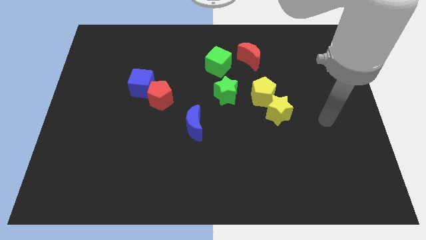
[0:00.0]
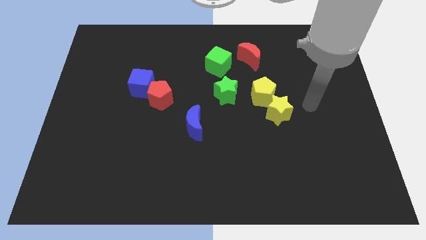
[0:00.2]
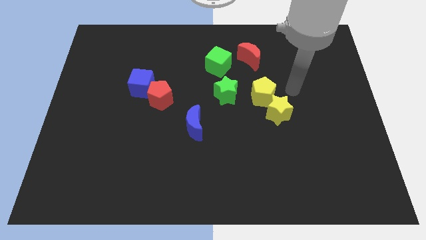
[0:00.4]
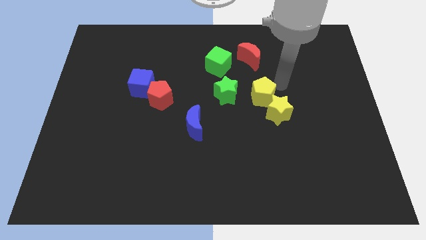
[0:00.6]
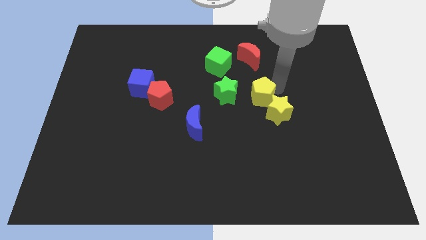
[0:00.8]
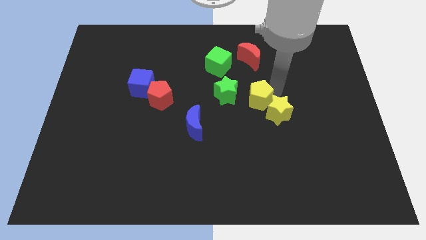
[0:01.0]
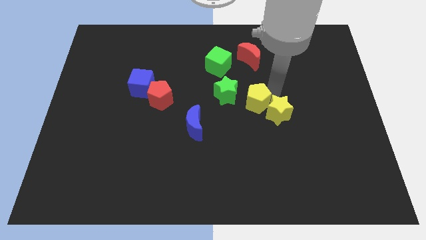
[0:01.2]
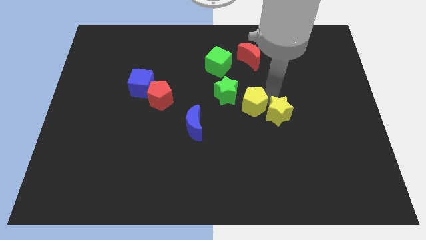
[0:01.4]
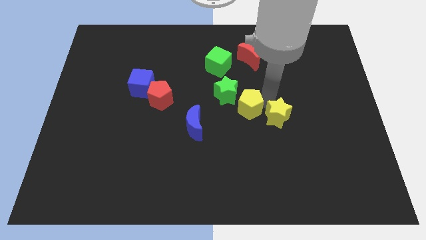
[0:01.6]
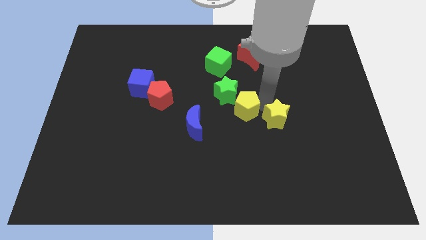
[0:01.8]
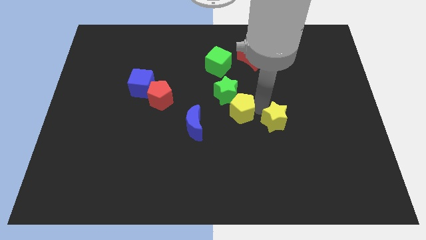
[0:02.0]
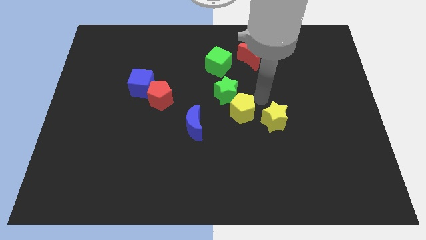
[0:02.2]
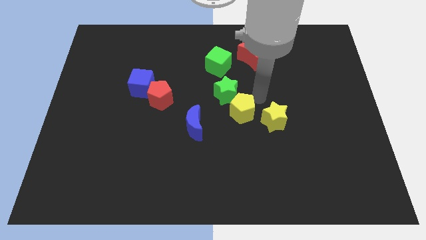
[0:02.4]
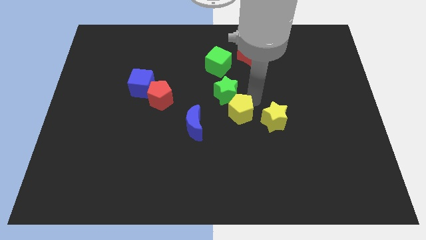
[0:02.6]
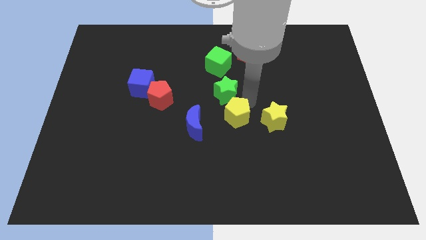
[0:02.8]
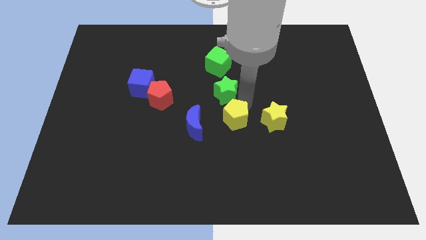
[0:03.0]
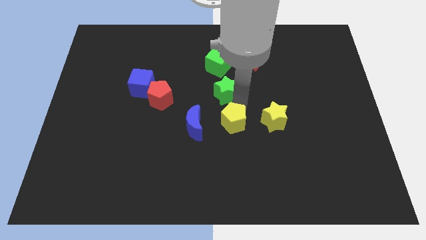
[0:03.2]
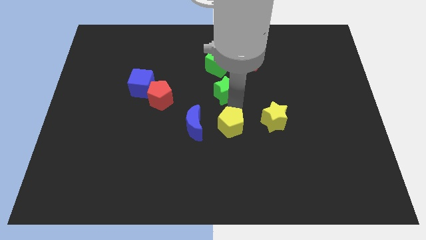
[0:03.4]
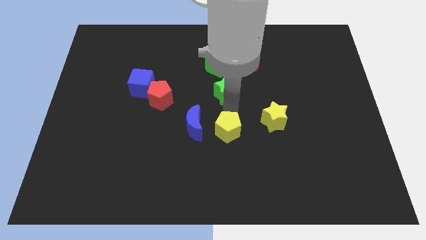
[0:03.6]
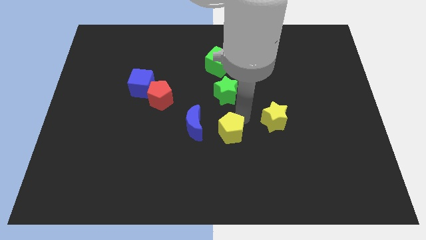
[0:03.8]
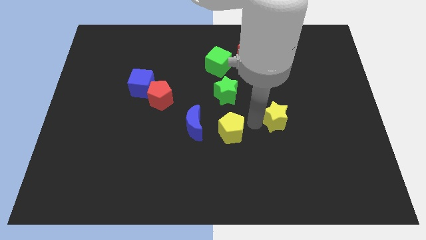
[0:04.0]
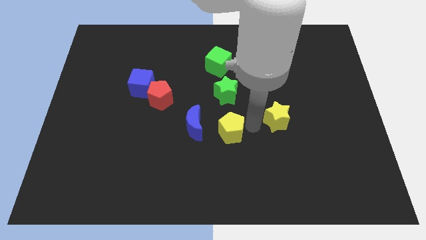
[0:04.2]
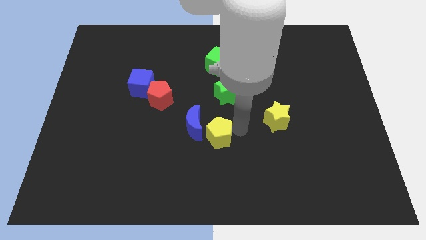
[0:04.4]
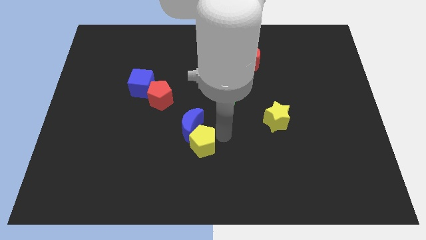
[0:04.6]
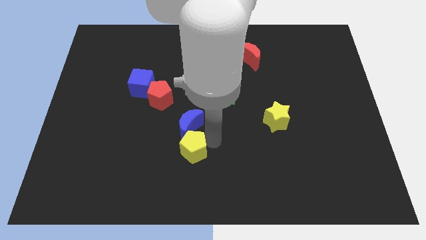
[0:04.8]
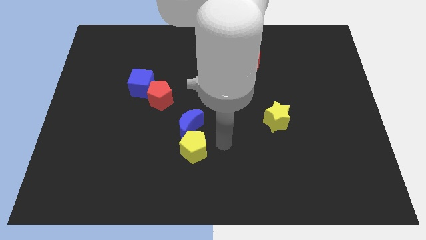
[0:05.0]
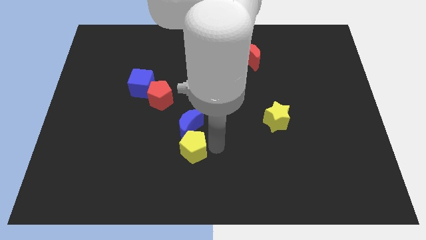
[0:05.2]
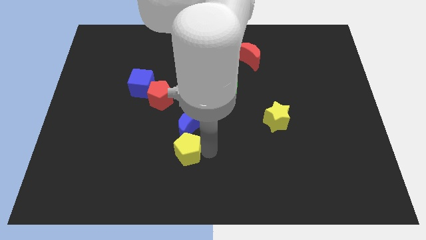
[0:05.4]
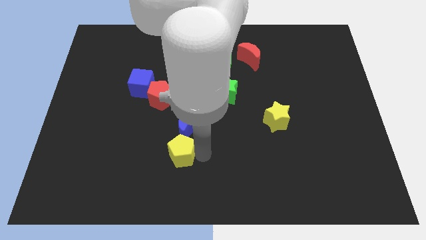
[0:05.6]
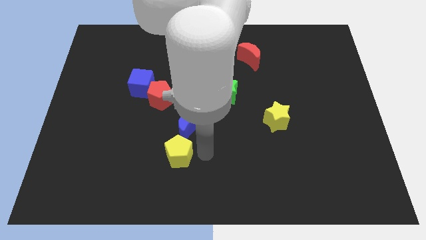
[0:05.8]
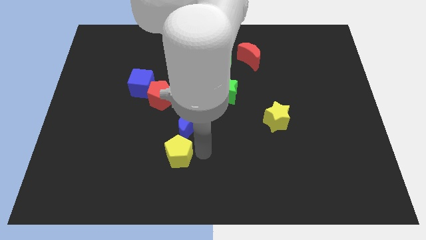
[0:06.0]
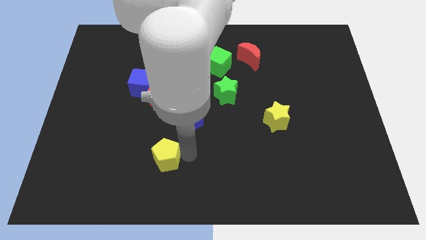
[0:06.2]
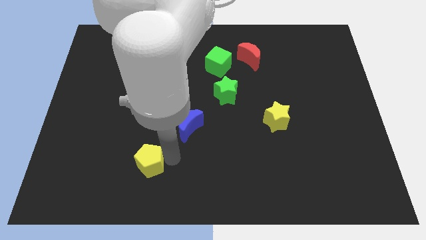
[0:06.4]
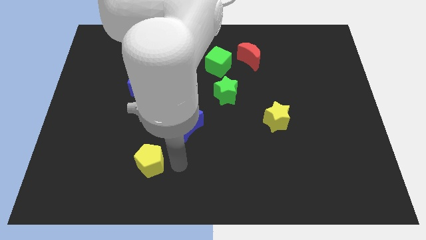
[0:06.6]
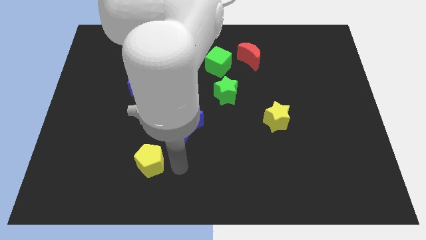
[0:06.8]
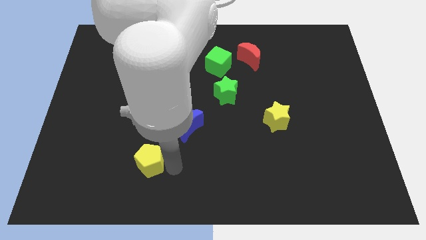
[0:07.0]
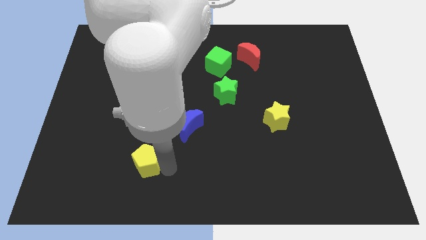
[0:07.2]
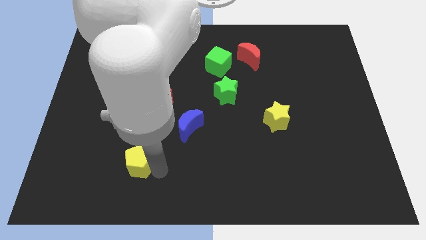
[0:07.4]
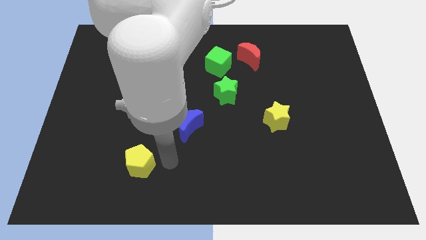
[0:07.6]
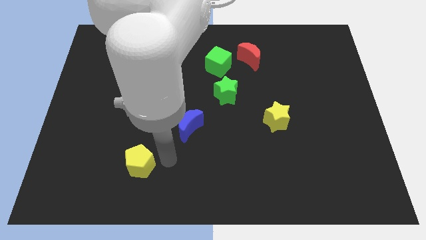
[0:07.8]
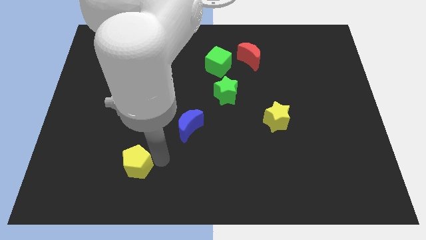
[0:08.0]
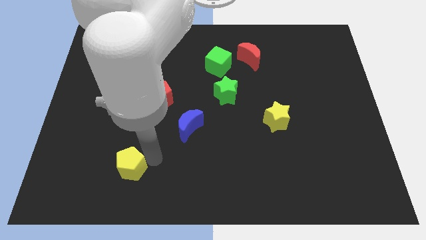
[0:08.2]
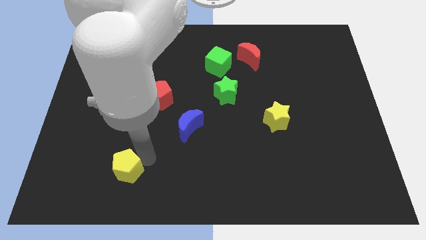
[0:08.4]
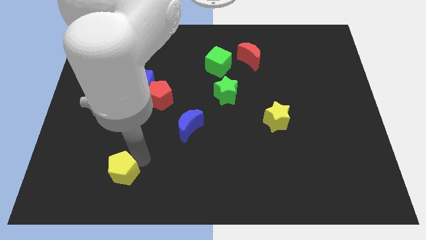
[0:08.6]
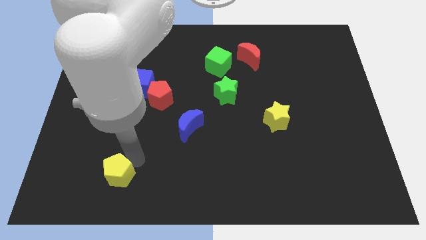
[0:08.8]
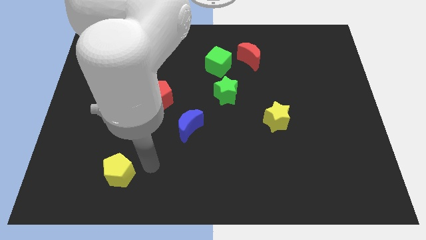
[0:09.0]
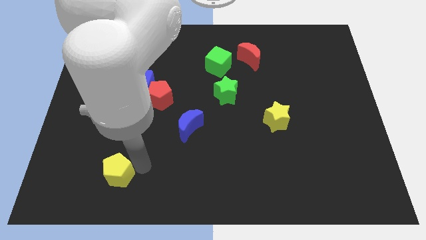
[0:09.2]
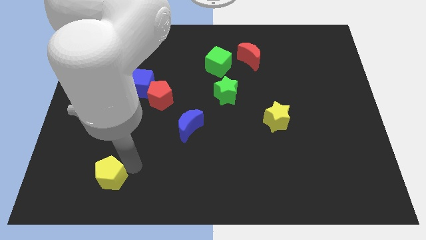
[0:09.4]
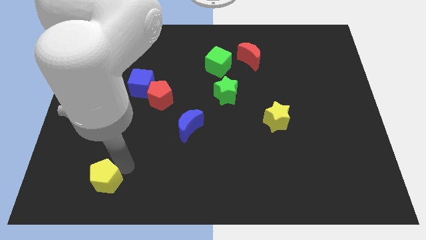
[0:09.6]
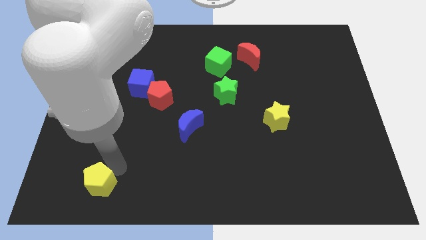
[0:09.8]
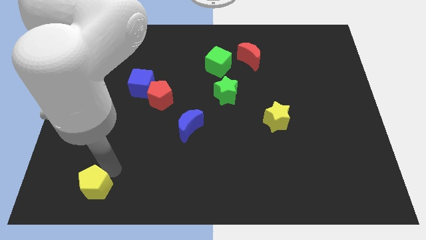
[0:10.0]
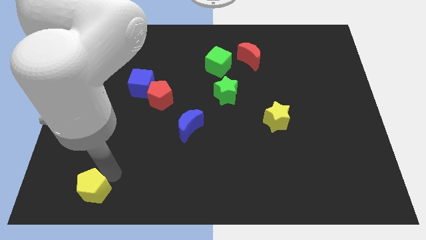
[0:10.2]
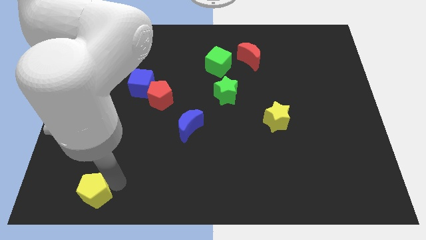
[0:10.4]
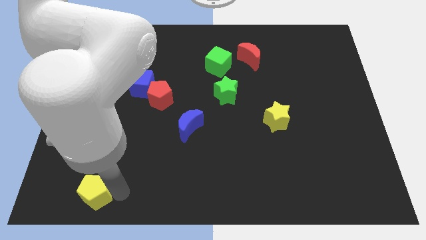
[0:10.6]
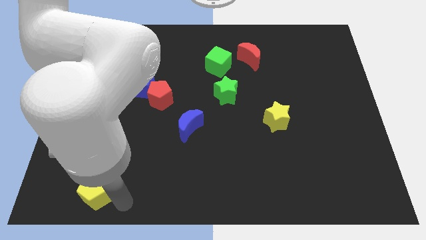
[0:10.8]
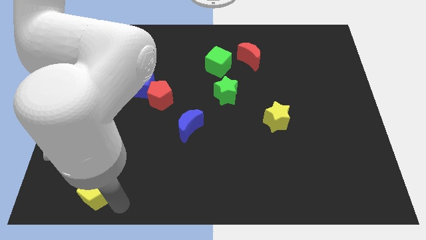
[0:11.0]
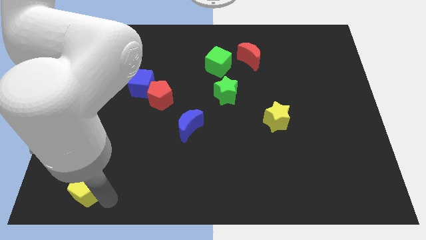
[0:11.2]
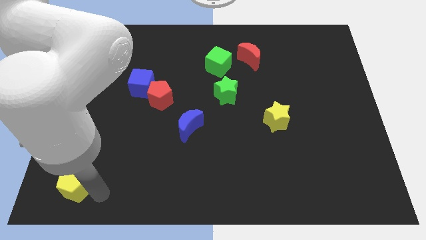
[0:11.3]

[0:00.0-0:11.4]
move the yellow pentagon to the bottom left of the board

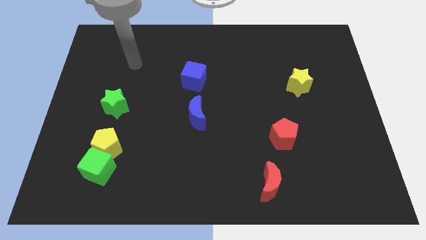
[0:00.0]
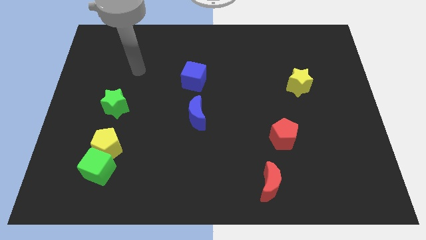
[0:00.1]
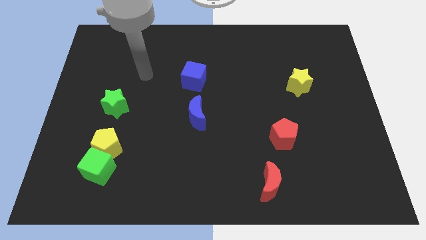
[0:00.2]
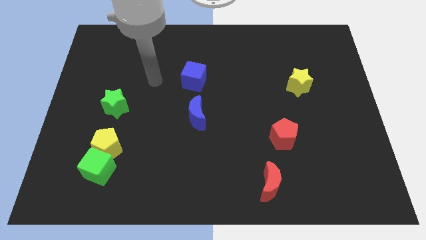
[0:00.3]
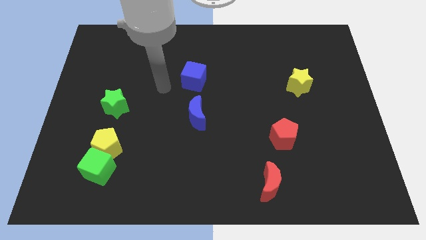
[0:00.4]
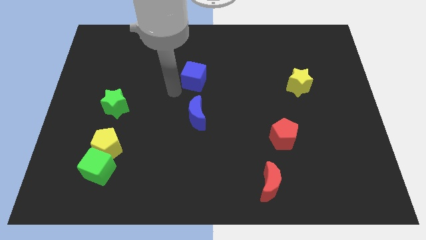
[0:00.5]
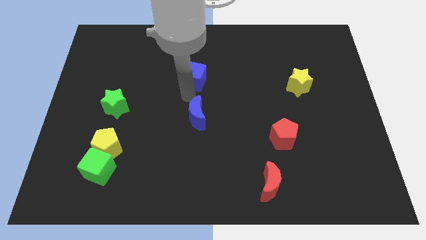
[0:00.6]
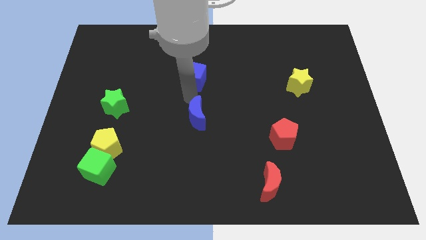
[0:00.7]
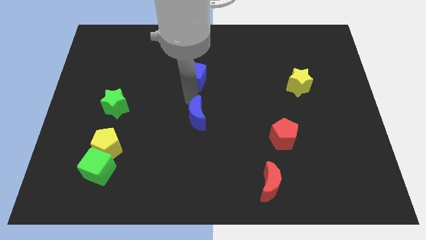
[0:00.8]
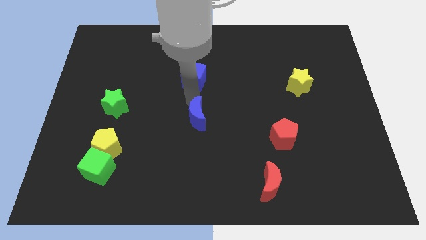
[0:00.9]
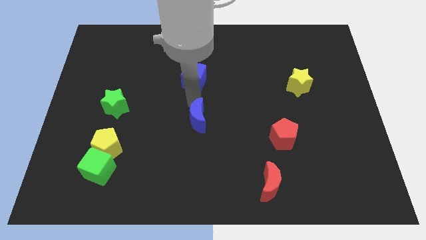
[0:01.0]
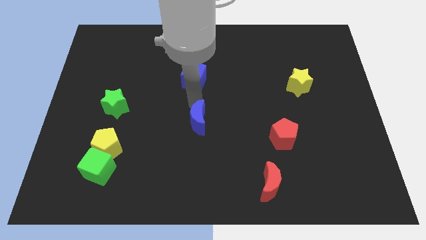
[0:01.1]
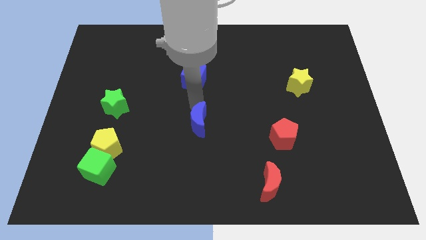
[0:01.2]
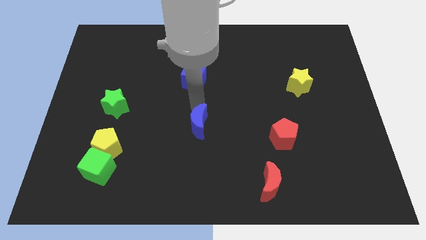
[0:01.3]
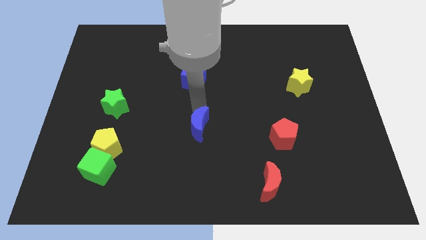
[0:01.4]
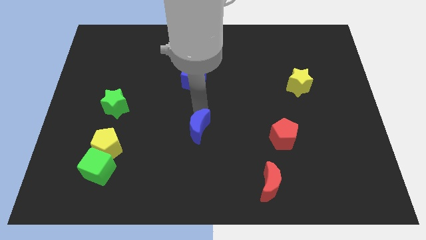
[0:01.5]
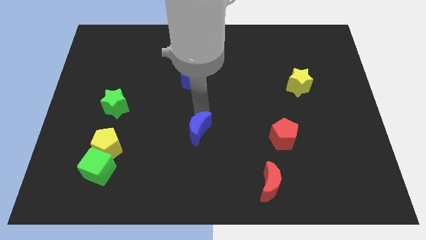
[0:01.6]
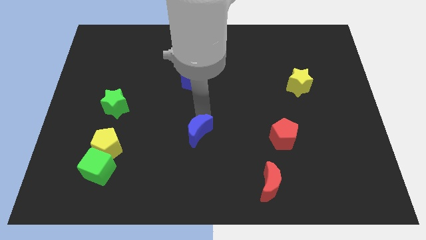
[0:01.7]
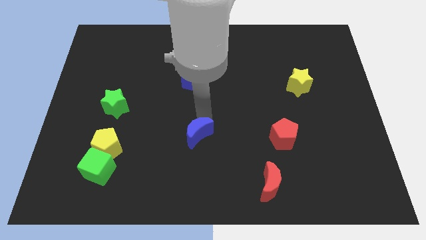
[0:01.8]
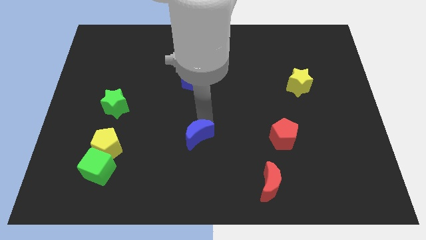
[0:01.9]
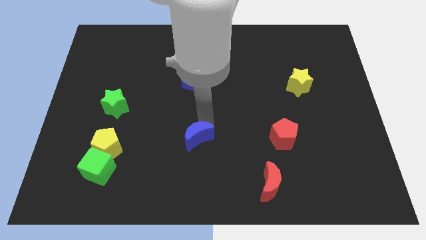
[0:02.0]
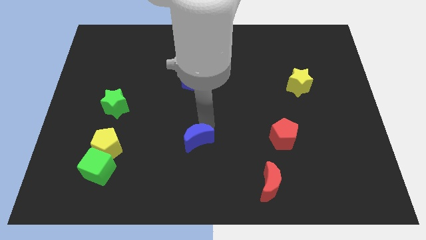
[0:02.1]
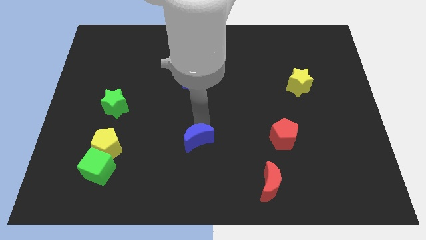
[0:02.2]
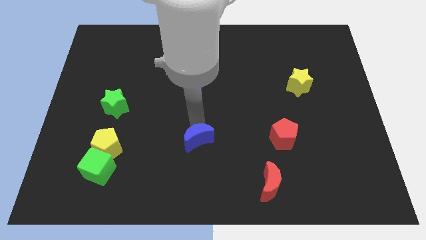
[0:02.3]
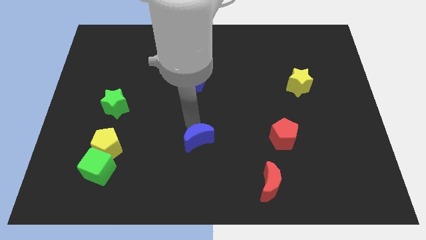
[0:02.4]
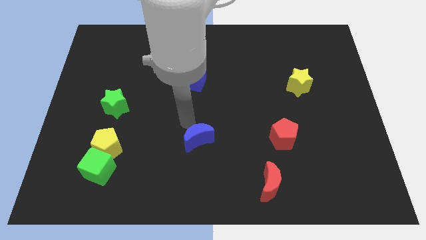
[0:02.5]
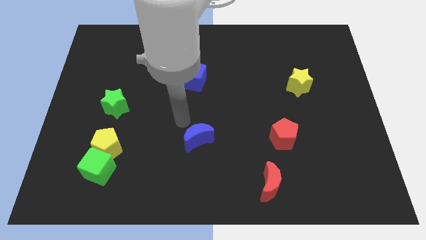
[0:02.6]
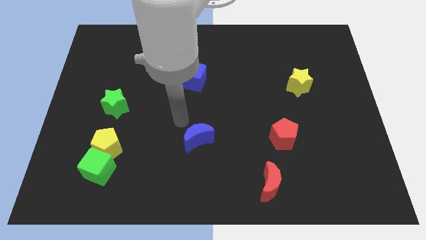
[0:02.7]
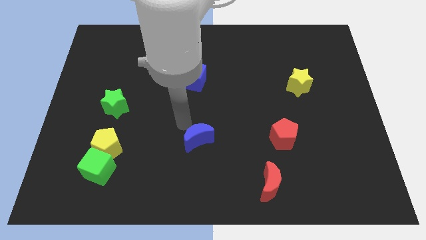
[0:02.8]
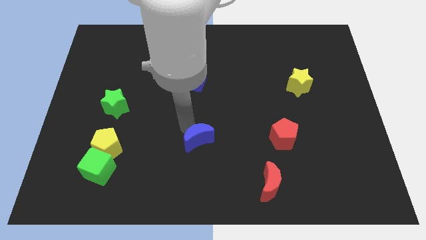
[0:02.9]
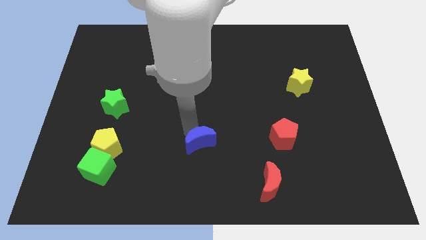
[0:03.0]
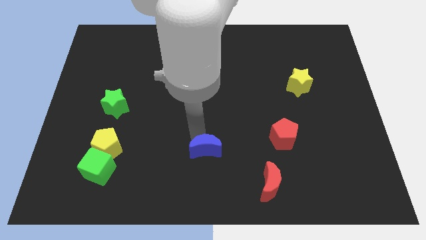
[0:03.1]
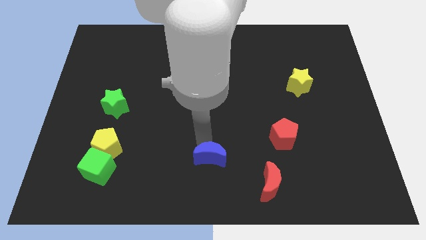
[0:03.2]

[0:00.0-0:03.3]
put the blue moon to the bottom
